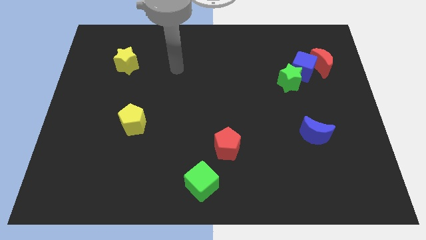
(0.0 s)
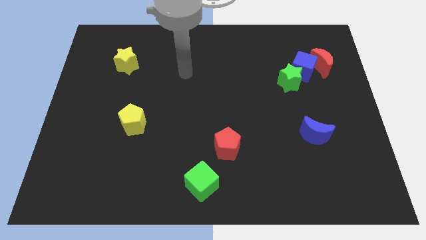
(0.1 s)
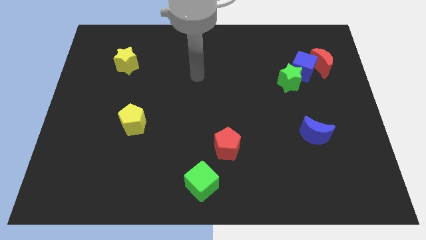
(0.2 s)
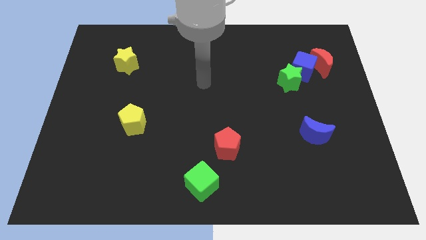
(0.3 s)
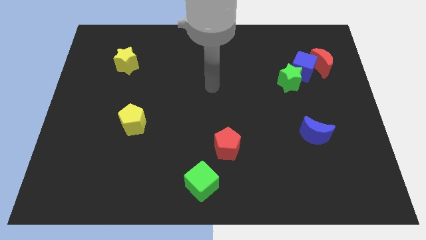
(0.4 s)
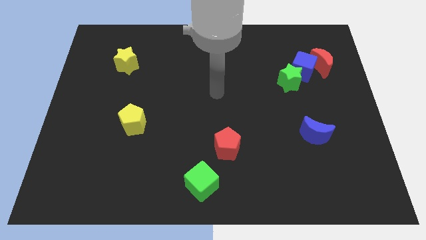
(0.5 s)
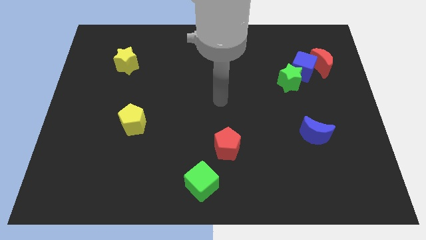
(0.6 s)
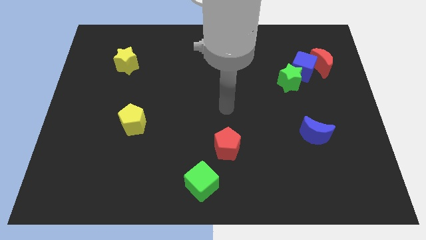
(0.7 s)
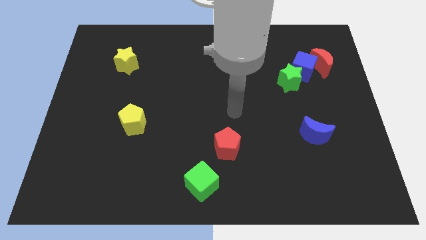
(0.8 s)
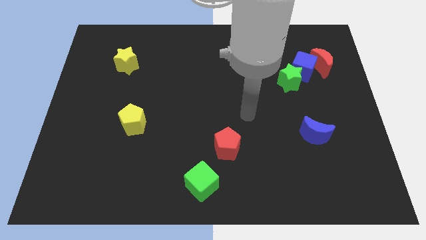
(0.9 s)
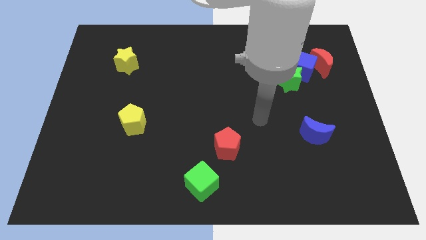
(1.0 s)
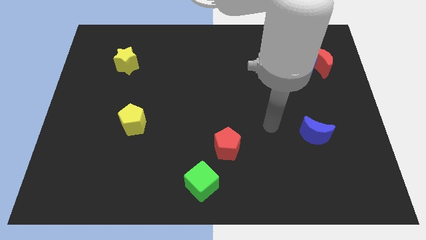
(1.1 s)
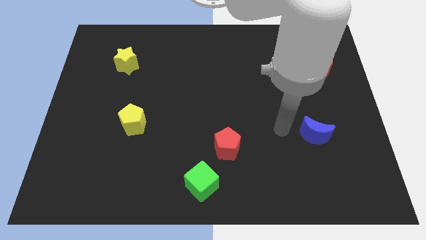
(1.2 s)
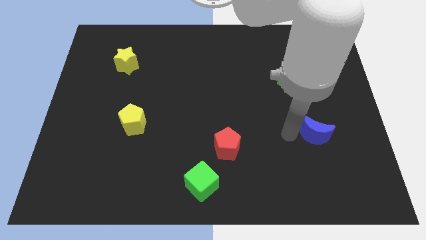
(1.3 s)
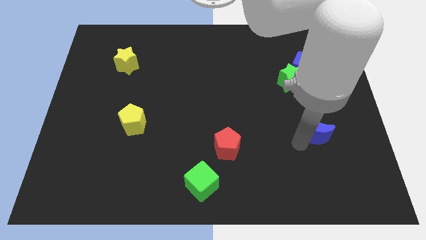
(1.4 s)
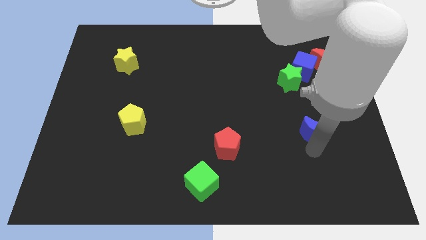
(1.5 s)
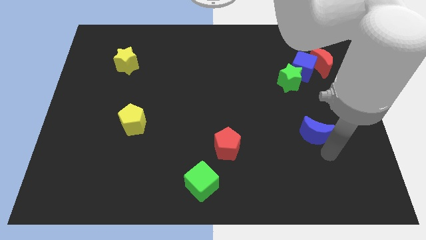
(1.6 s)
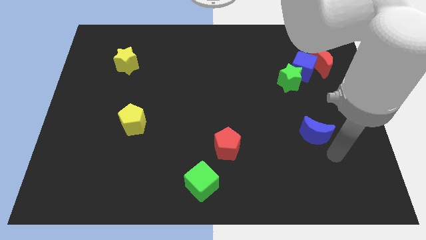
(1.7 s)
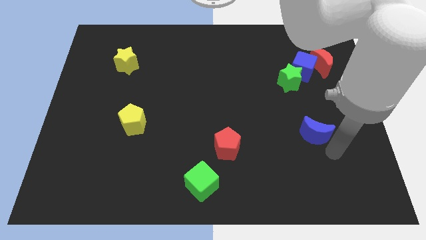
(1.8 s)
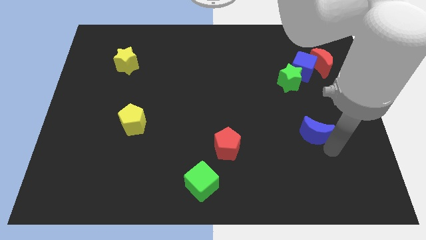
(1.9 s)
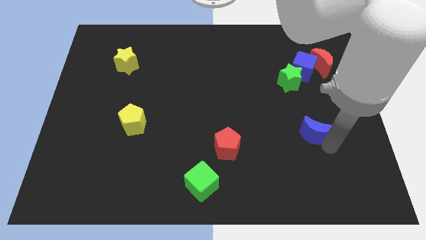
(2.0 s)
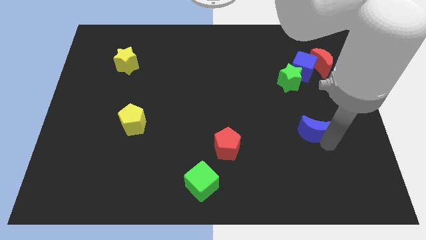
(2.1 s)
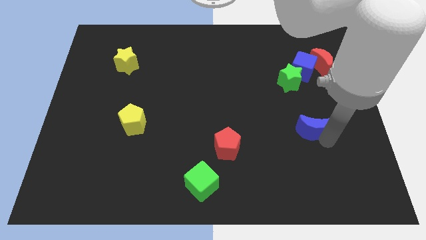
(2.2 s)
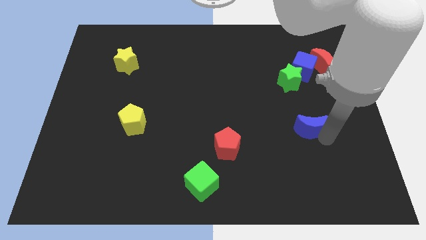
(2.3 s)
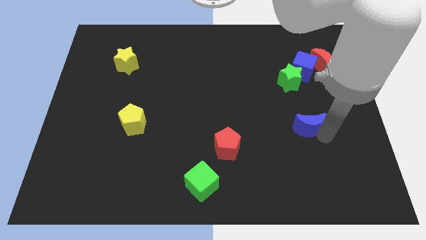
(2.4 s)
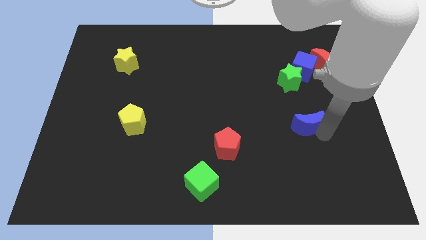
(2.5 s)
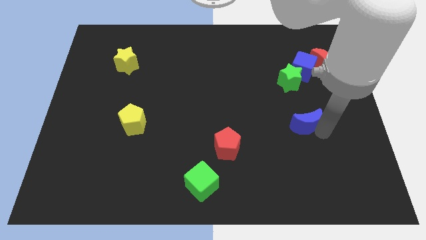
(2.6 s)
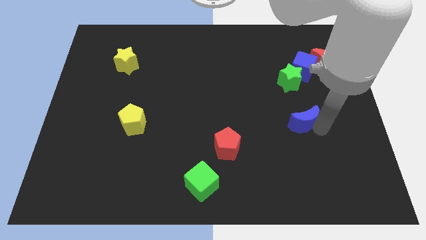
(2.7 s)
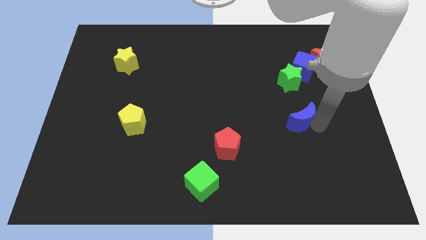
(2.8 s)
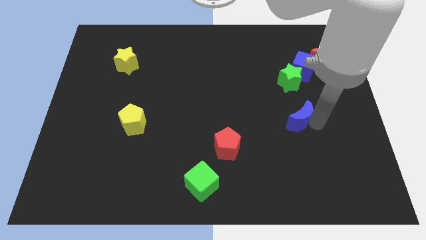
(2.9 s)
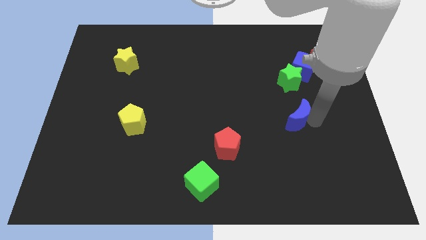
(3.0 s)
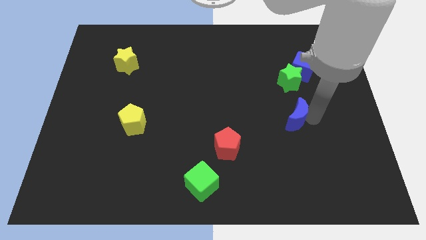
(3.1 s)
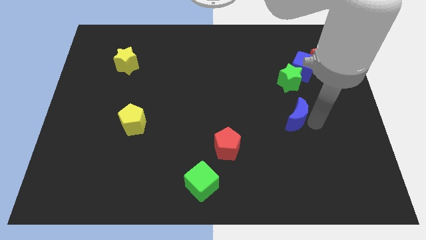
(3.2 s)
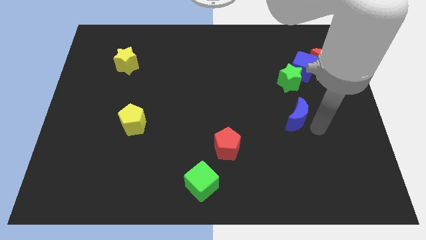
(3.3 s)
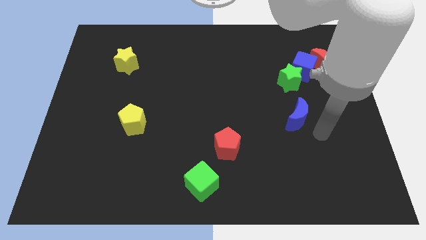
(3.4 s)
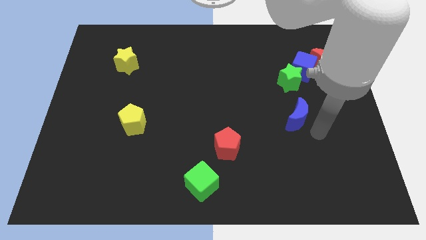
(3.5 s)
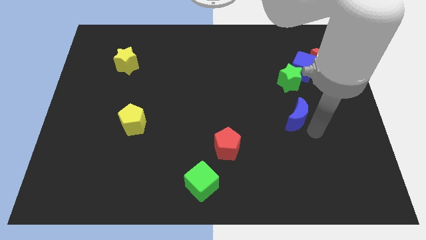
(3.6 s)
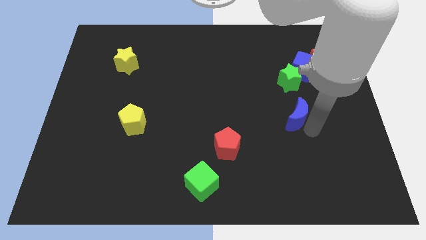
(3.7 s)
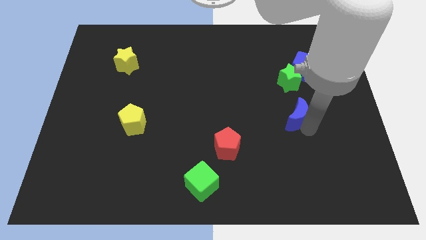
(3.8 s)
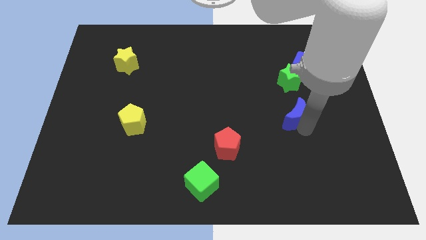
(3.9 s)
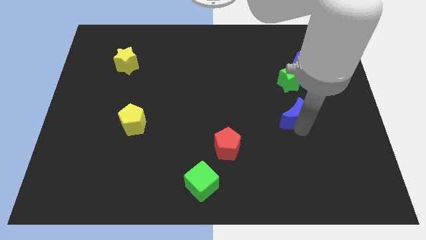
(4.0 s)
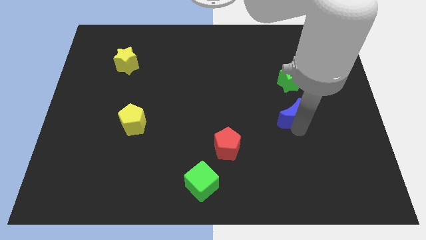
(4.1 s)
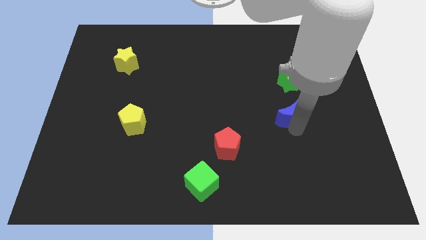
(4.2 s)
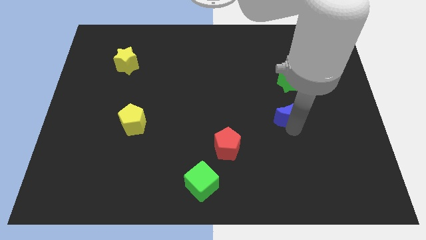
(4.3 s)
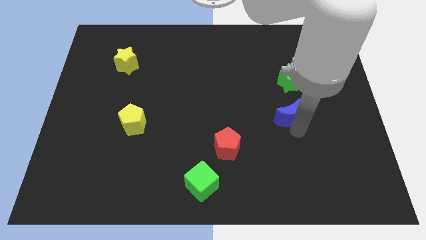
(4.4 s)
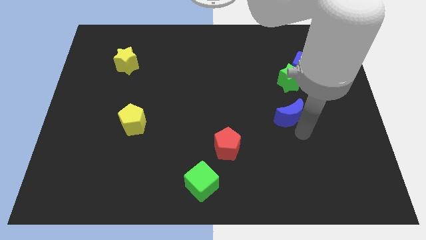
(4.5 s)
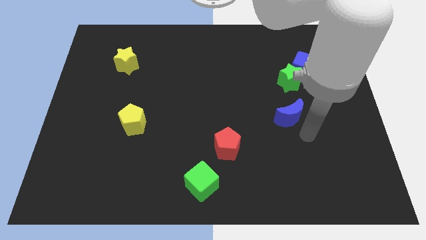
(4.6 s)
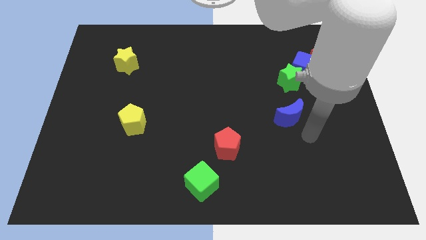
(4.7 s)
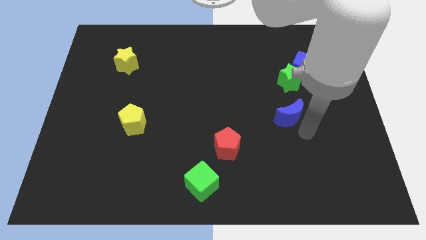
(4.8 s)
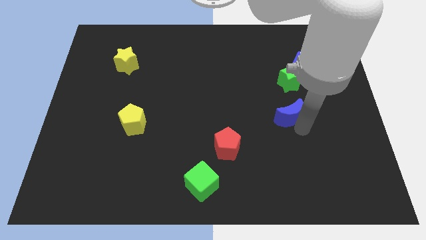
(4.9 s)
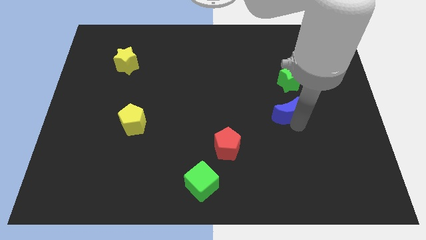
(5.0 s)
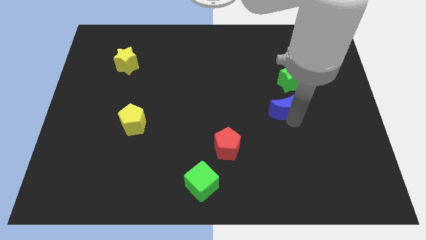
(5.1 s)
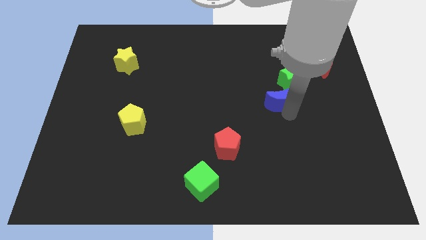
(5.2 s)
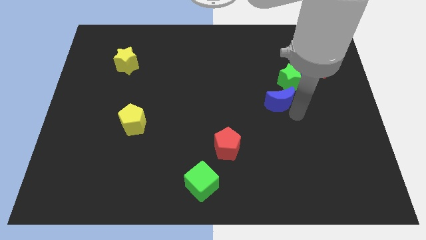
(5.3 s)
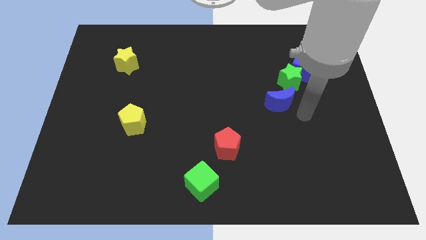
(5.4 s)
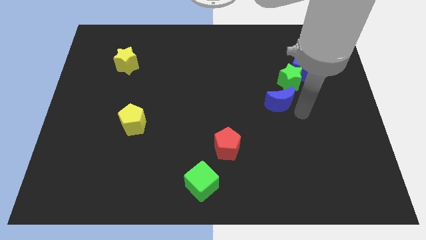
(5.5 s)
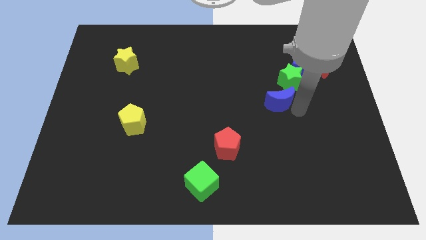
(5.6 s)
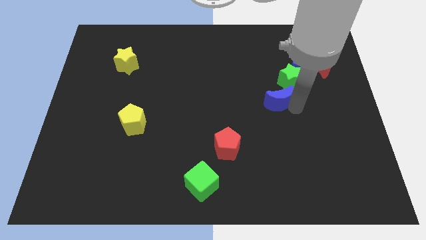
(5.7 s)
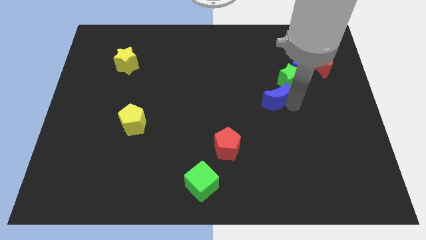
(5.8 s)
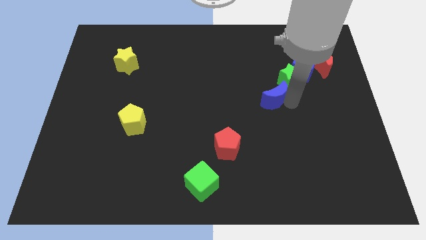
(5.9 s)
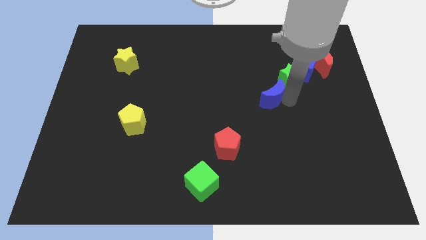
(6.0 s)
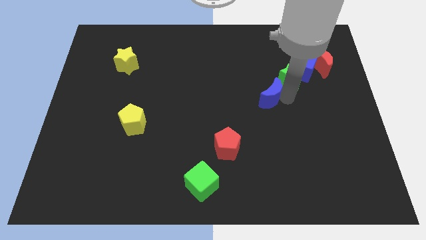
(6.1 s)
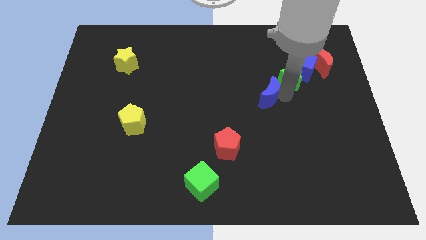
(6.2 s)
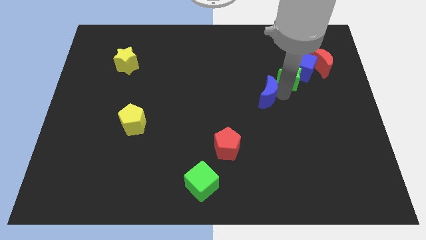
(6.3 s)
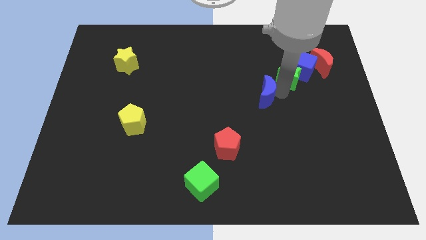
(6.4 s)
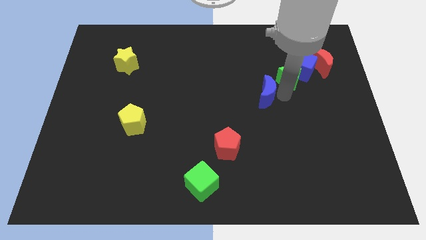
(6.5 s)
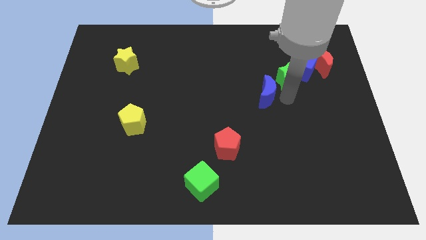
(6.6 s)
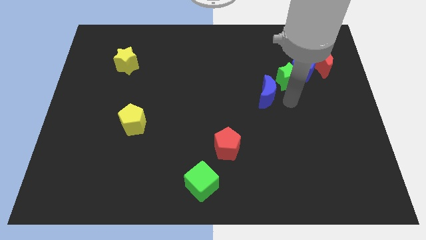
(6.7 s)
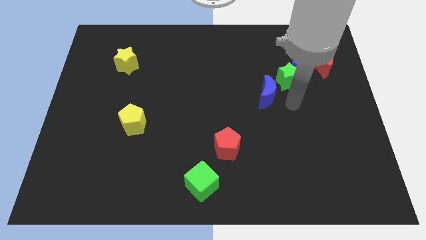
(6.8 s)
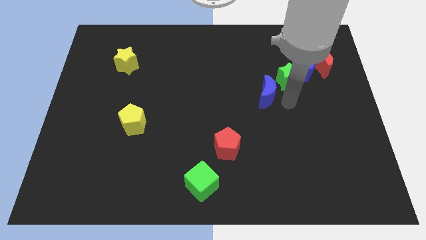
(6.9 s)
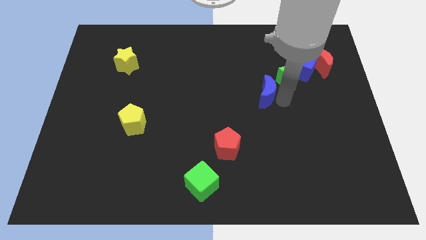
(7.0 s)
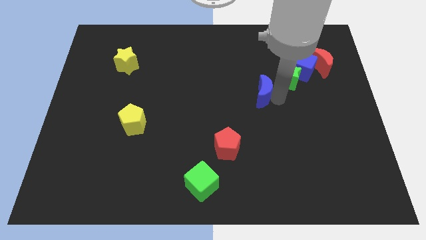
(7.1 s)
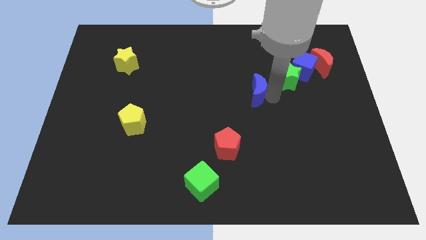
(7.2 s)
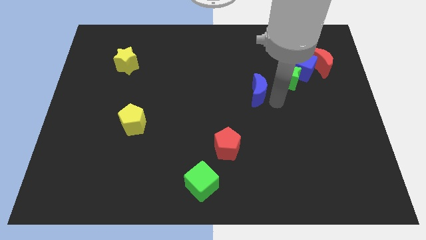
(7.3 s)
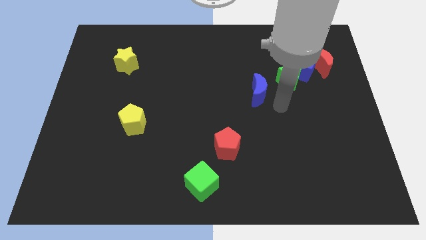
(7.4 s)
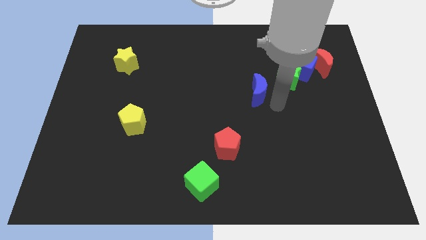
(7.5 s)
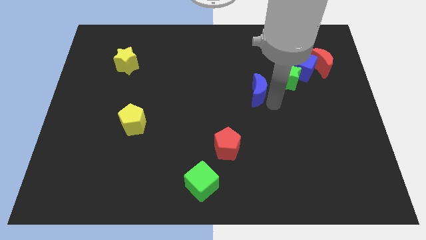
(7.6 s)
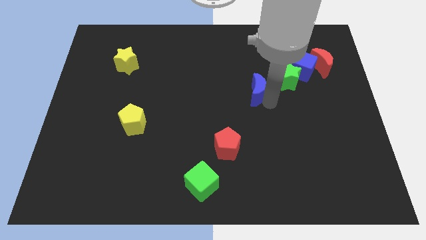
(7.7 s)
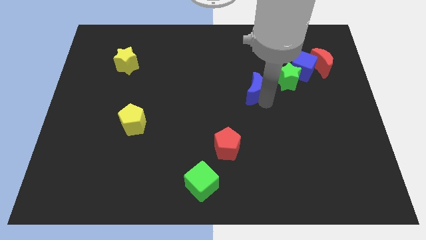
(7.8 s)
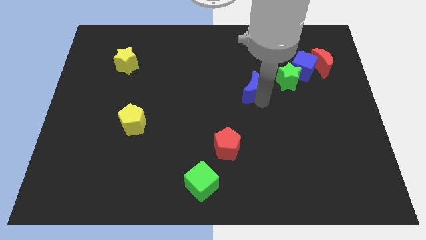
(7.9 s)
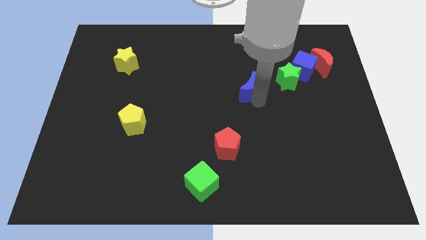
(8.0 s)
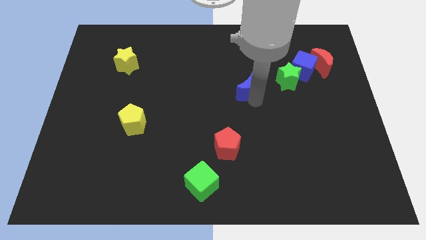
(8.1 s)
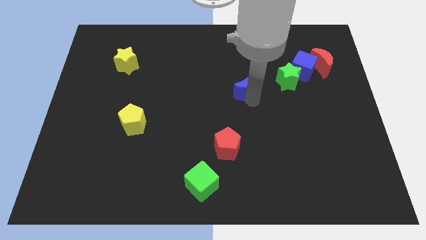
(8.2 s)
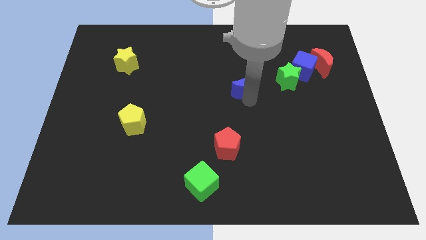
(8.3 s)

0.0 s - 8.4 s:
slide the blue moon up and to the left diagonally
